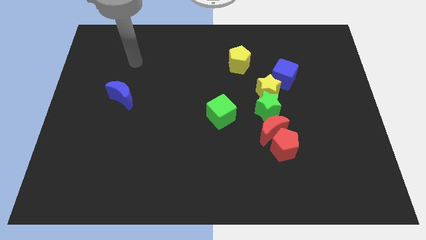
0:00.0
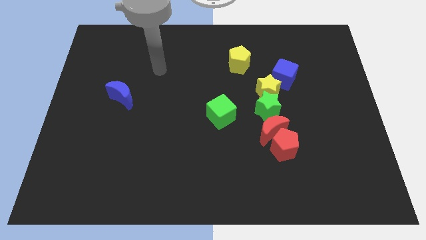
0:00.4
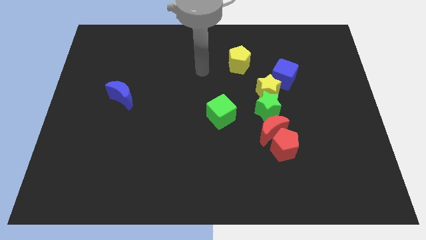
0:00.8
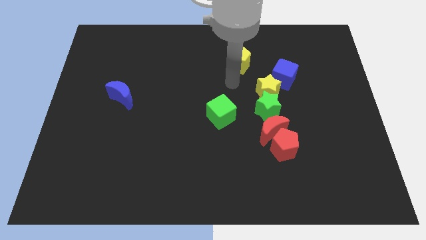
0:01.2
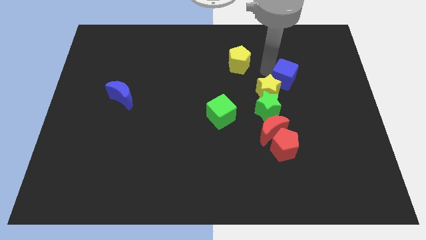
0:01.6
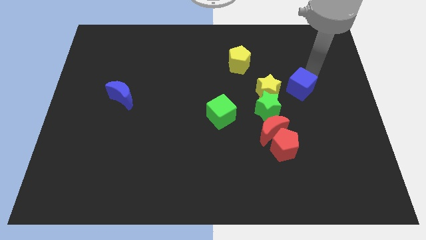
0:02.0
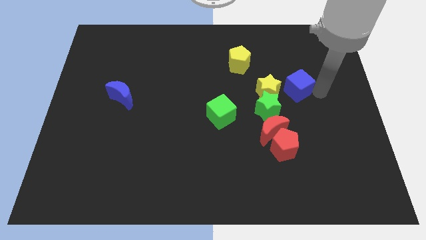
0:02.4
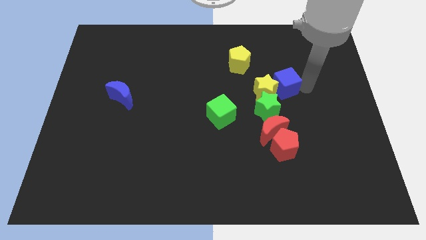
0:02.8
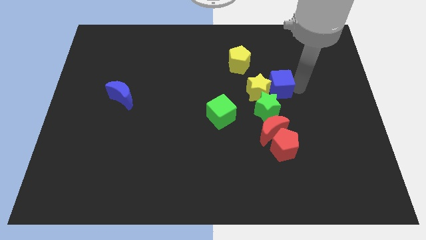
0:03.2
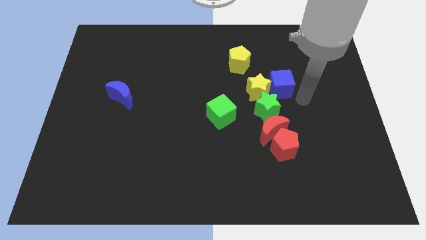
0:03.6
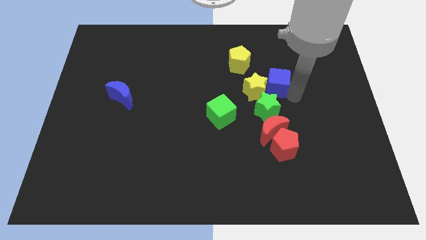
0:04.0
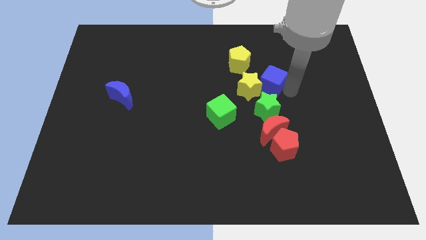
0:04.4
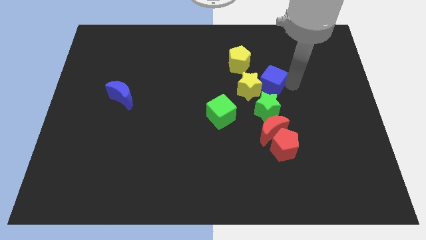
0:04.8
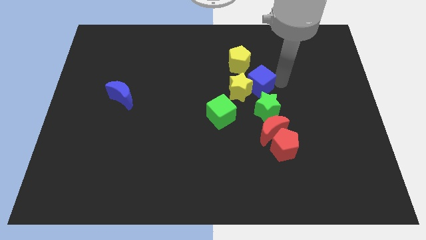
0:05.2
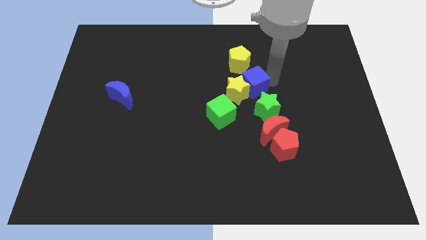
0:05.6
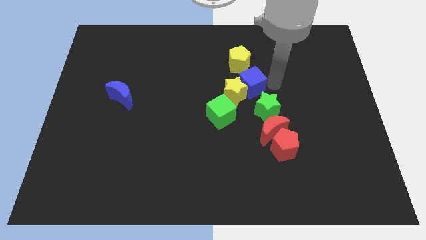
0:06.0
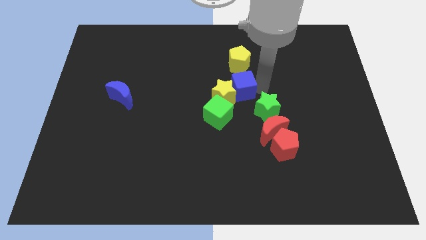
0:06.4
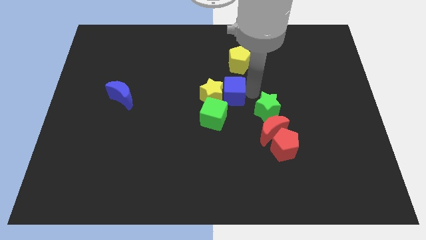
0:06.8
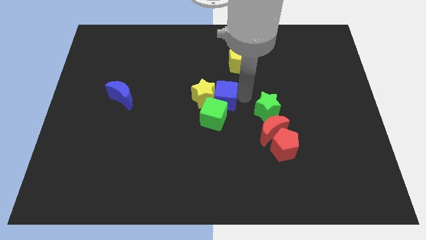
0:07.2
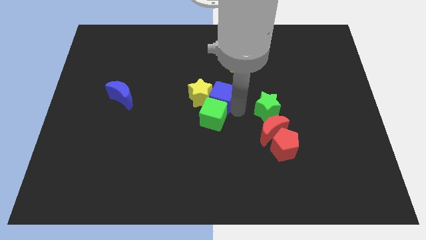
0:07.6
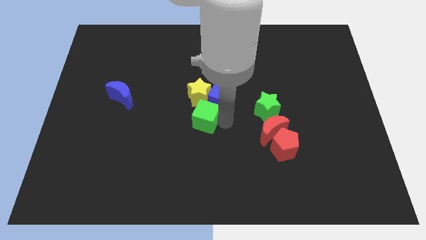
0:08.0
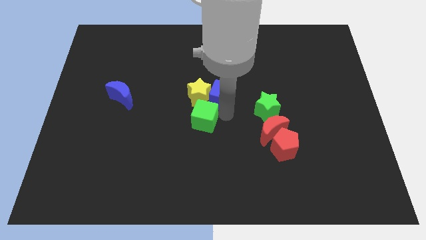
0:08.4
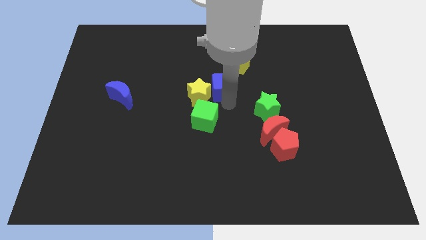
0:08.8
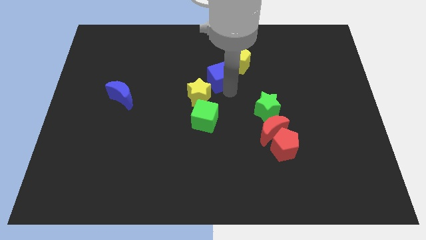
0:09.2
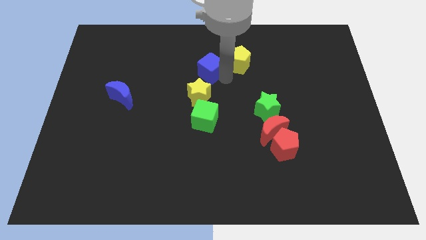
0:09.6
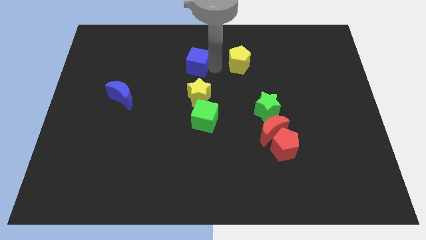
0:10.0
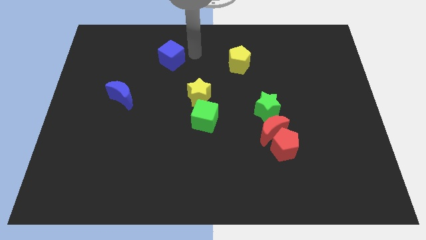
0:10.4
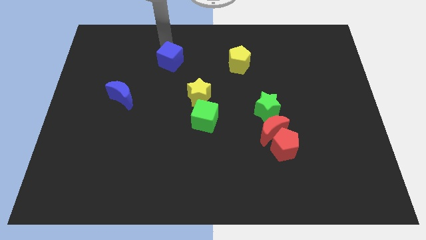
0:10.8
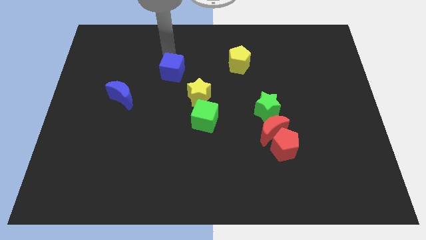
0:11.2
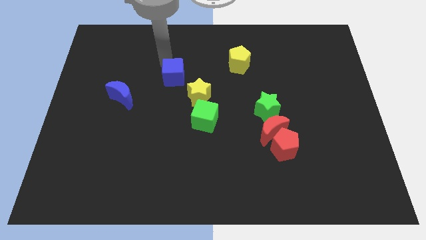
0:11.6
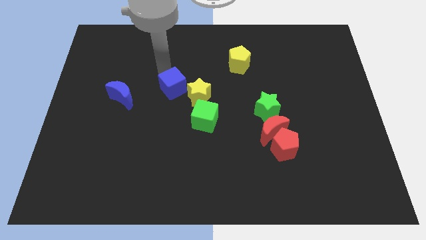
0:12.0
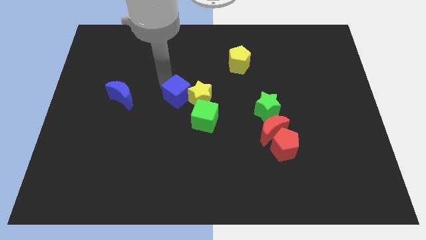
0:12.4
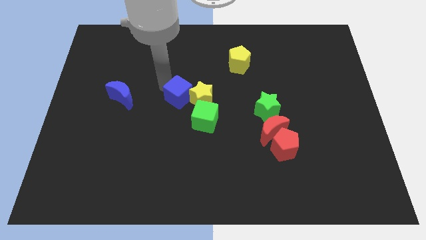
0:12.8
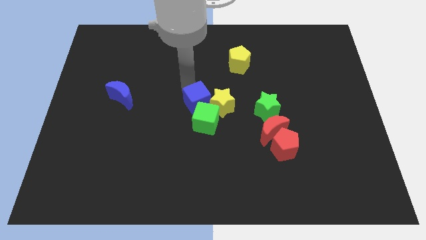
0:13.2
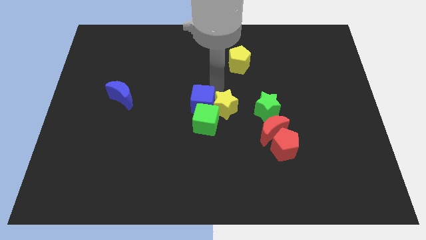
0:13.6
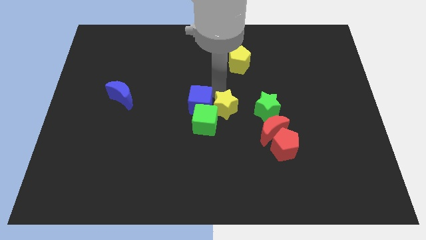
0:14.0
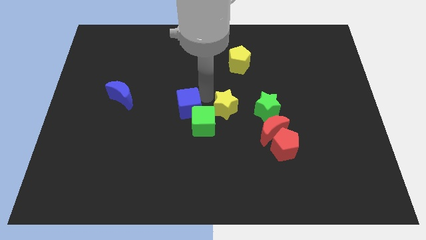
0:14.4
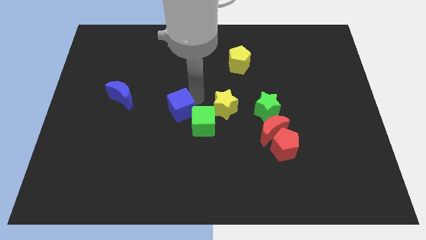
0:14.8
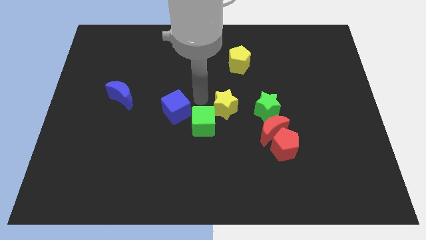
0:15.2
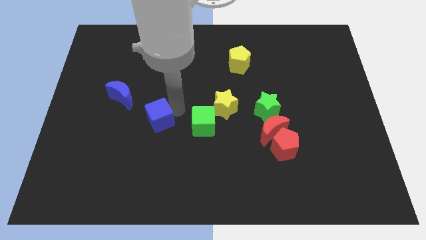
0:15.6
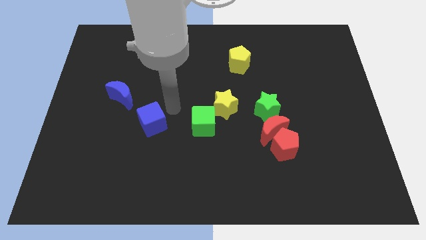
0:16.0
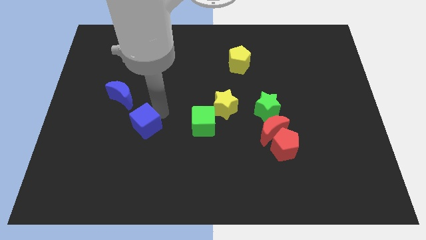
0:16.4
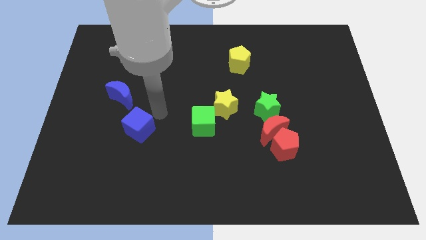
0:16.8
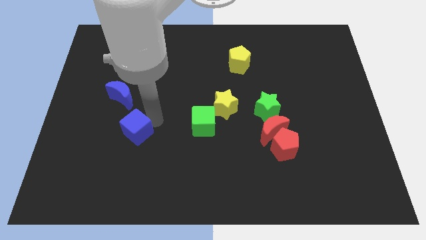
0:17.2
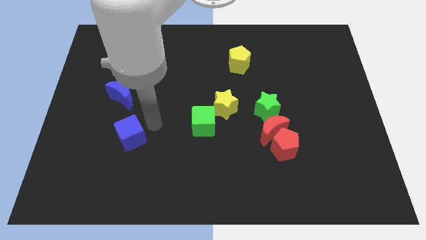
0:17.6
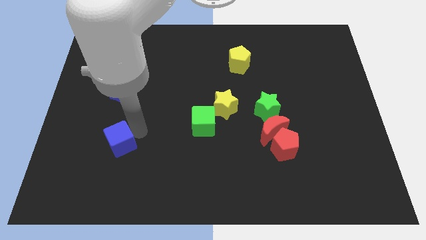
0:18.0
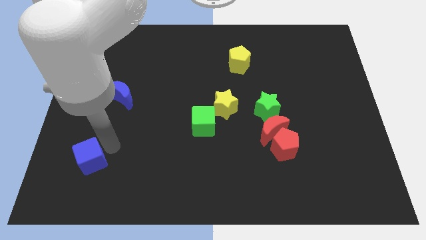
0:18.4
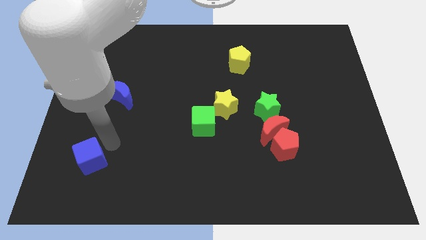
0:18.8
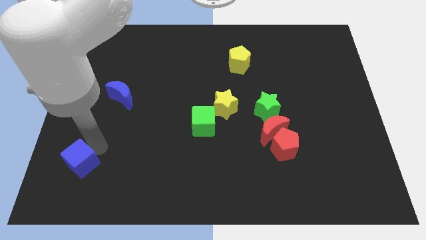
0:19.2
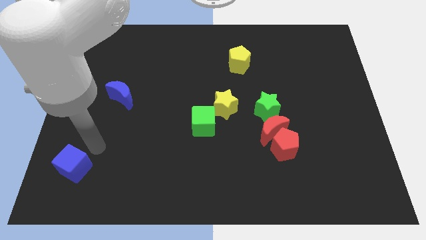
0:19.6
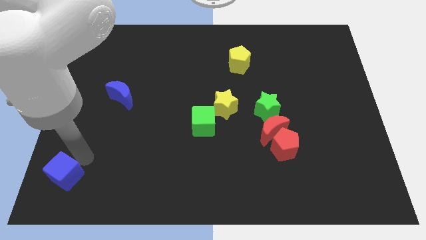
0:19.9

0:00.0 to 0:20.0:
push the blue cube to the lower left corner

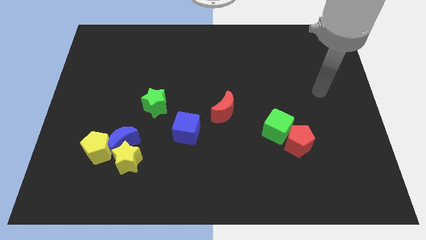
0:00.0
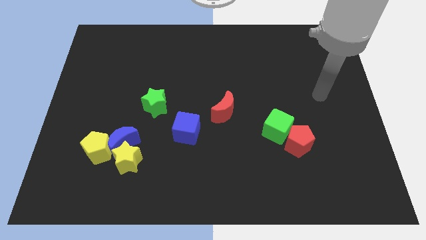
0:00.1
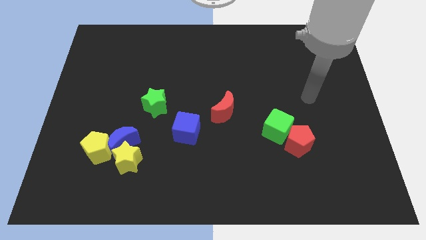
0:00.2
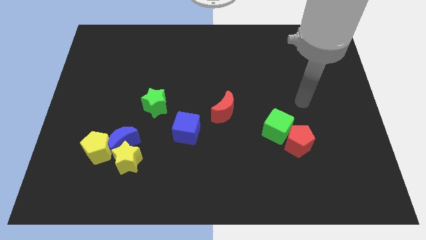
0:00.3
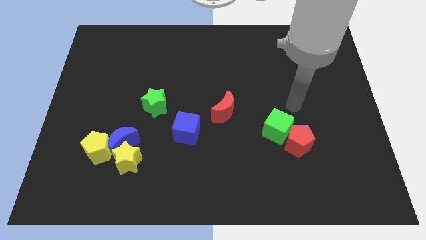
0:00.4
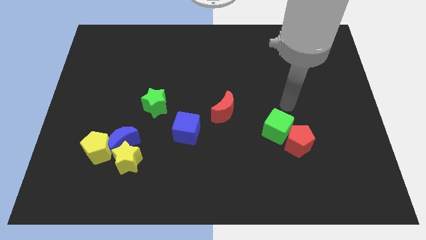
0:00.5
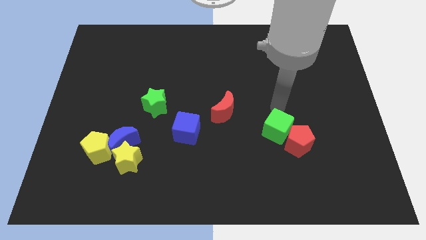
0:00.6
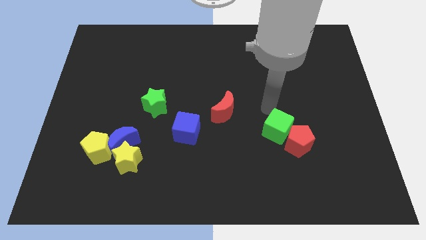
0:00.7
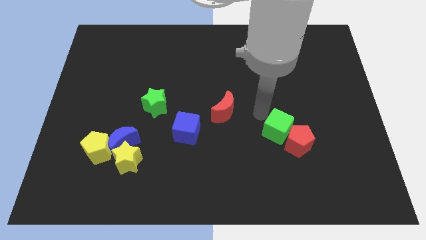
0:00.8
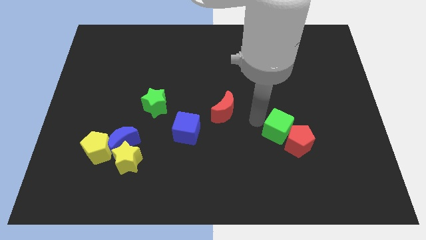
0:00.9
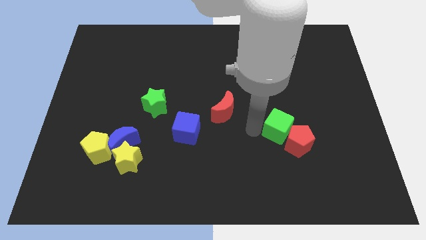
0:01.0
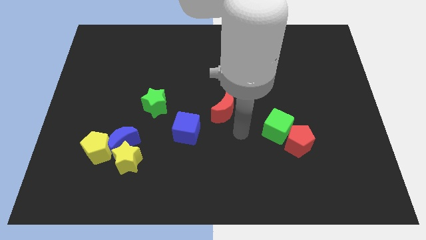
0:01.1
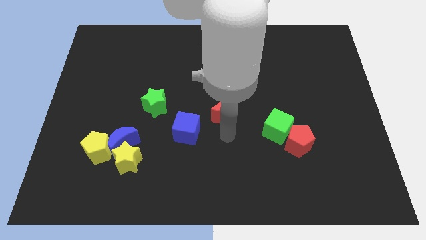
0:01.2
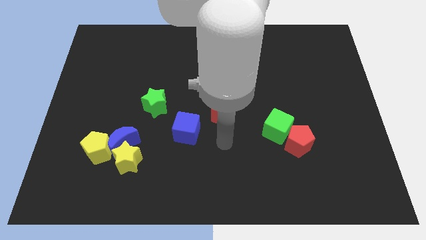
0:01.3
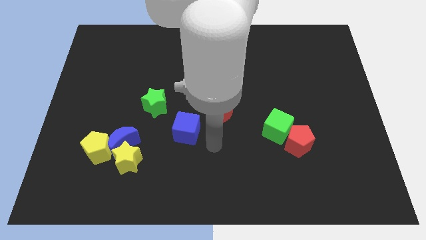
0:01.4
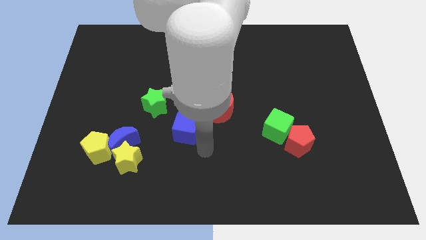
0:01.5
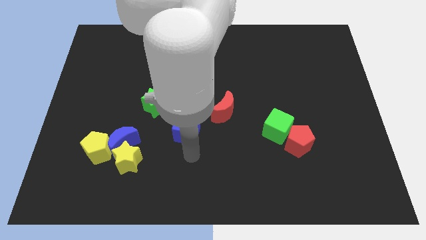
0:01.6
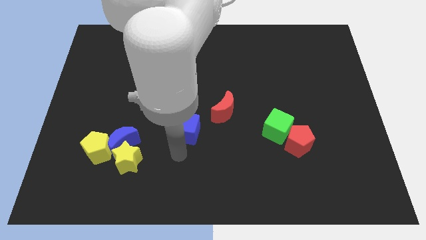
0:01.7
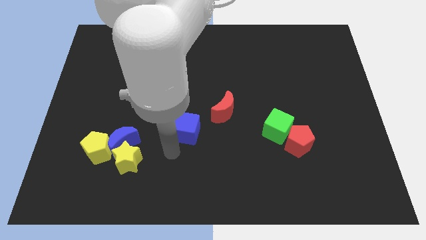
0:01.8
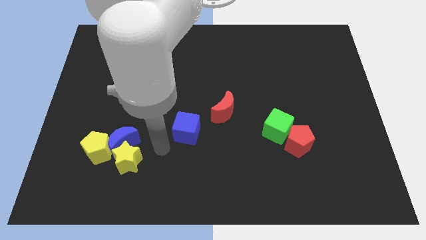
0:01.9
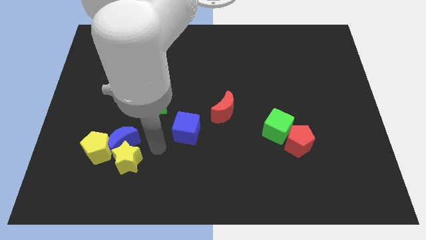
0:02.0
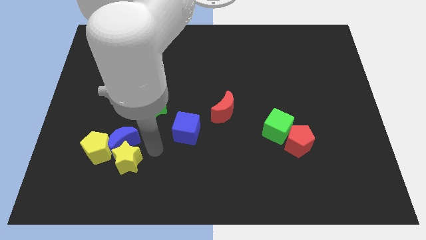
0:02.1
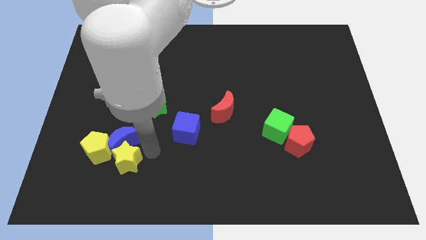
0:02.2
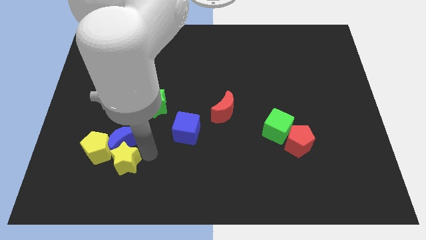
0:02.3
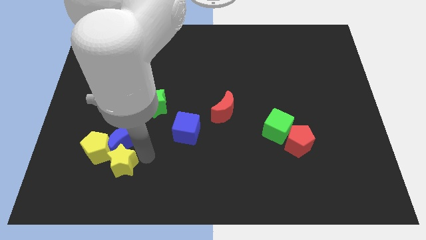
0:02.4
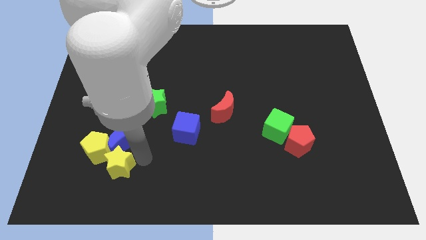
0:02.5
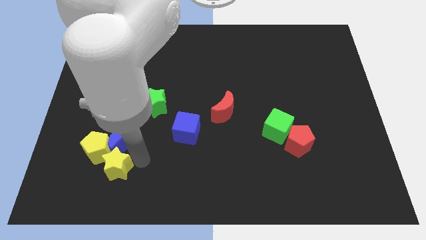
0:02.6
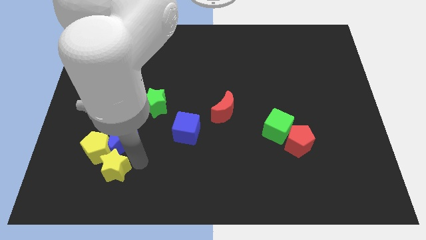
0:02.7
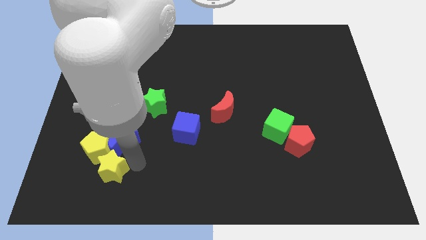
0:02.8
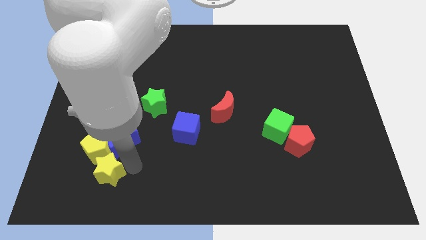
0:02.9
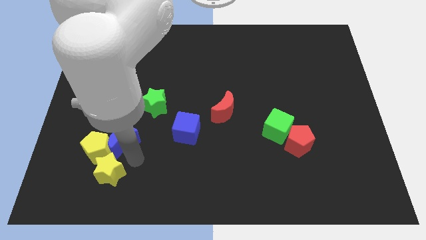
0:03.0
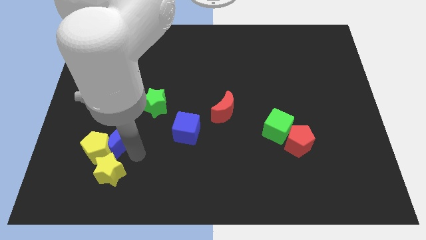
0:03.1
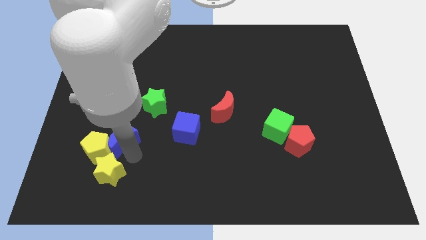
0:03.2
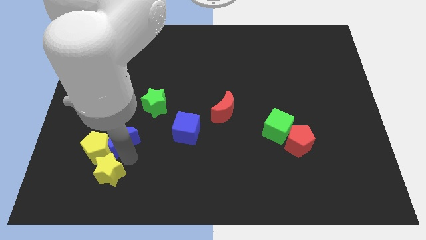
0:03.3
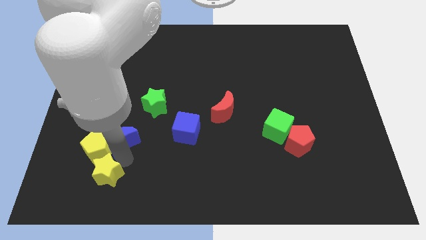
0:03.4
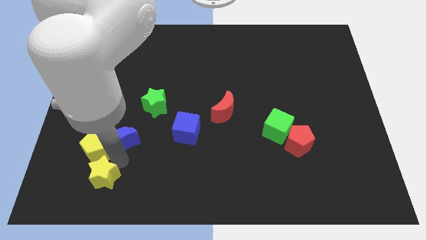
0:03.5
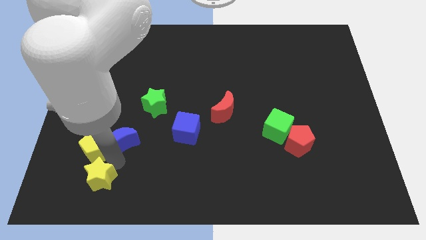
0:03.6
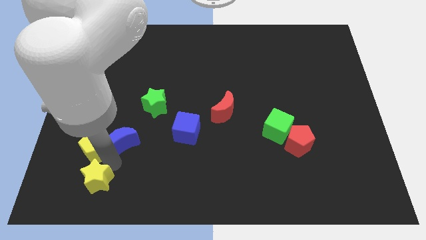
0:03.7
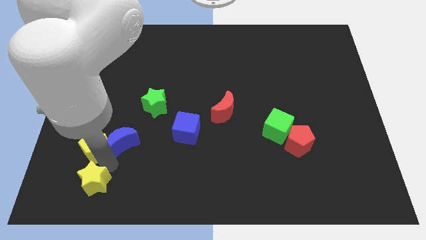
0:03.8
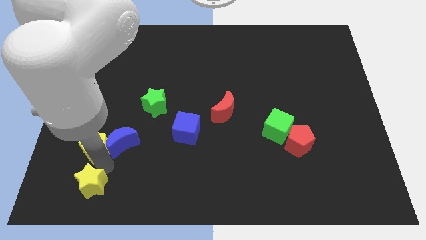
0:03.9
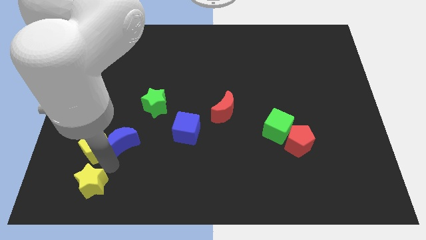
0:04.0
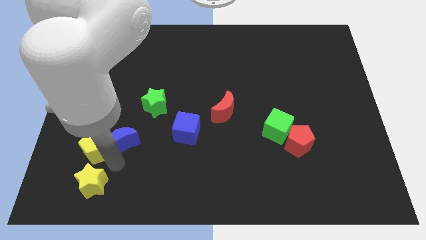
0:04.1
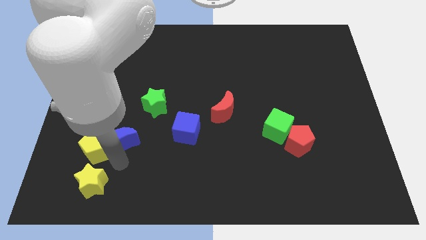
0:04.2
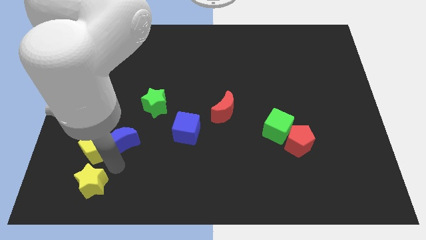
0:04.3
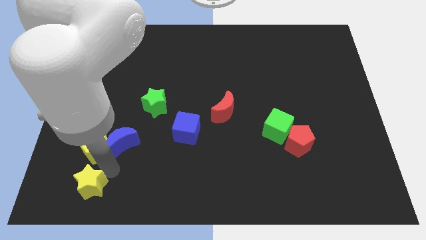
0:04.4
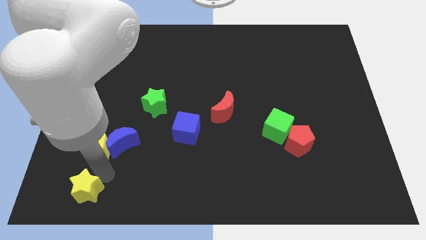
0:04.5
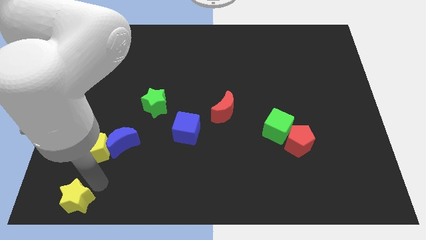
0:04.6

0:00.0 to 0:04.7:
push the yellow star to the bottom left
